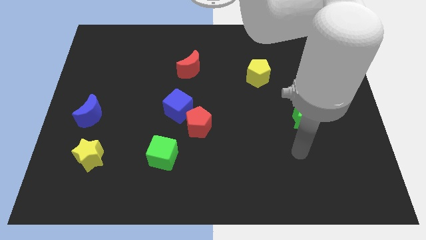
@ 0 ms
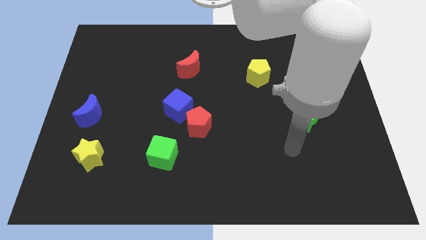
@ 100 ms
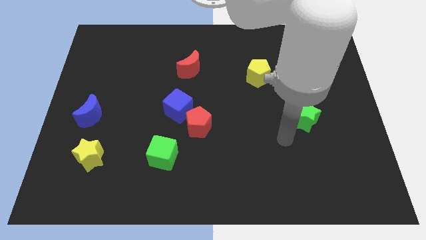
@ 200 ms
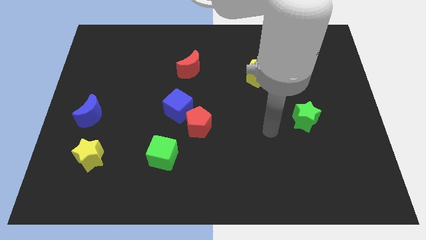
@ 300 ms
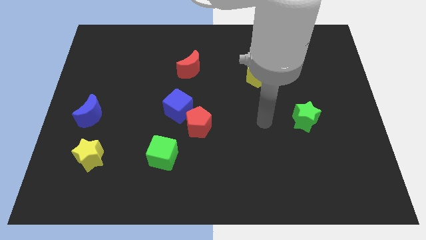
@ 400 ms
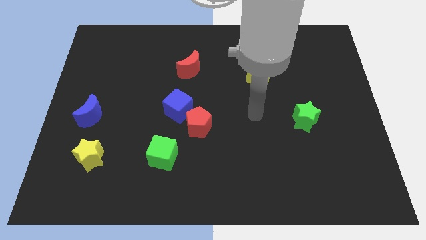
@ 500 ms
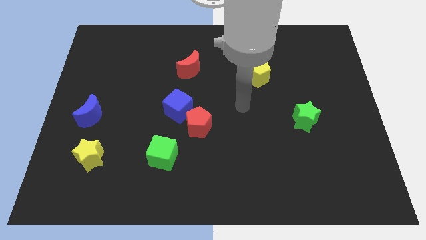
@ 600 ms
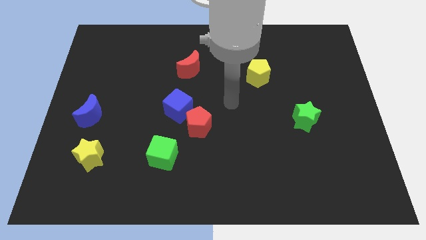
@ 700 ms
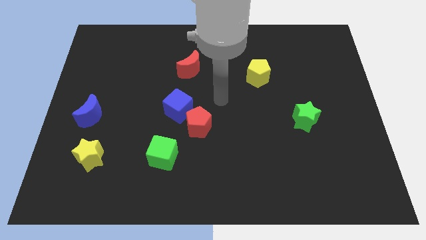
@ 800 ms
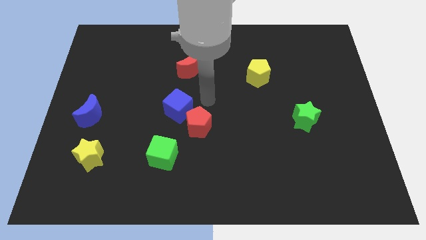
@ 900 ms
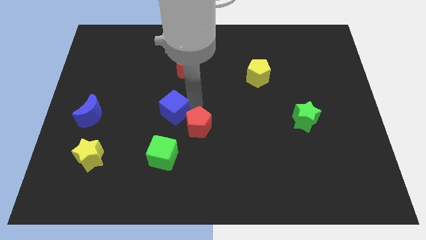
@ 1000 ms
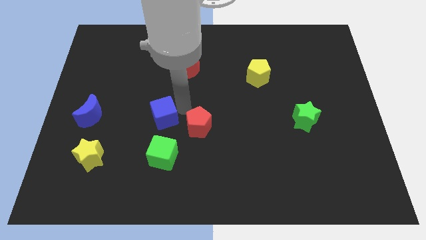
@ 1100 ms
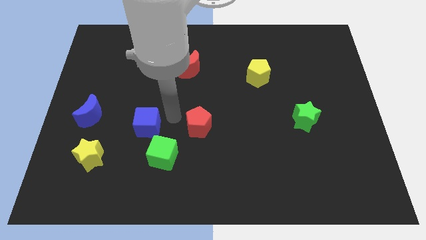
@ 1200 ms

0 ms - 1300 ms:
pull the red pentagon apart from the blue cube

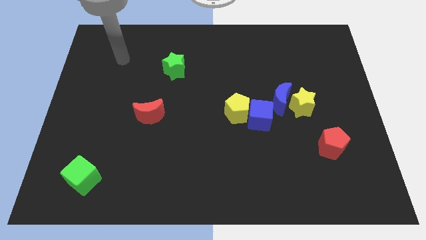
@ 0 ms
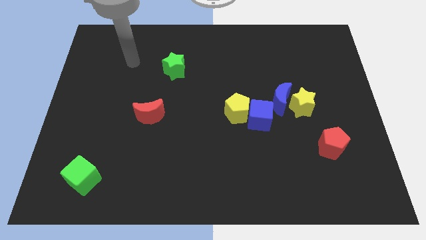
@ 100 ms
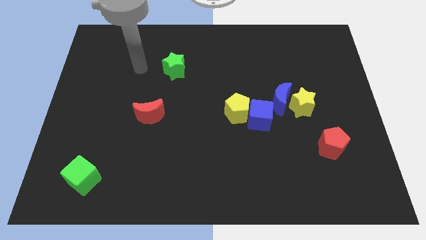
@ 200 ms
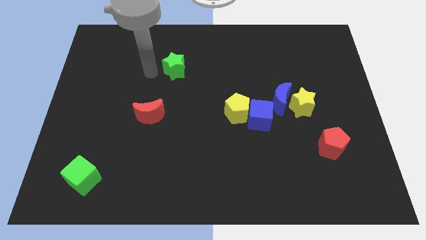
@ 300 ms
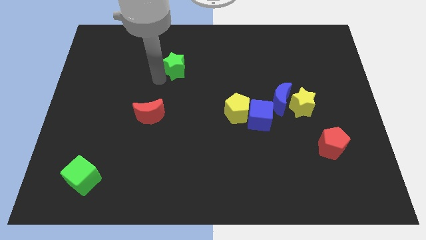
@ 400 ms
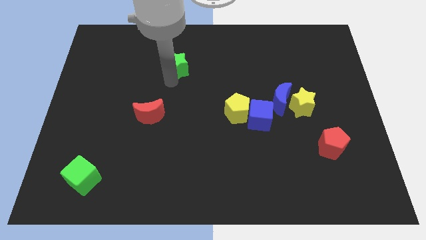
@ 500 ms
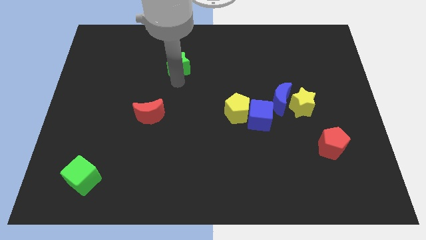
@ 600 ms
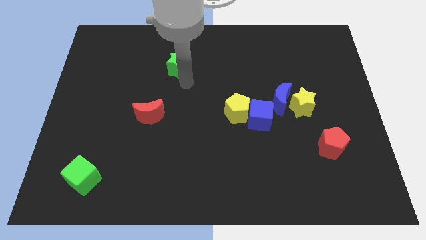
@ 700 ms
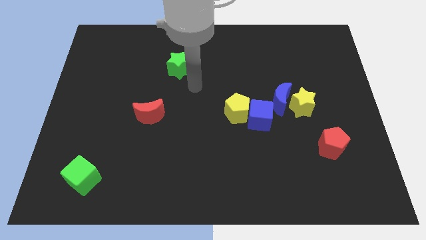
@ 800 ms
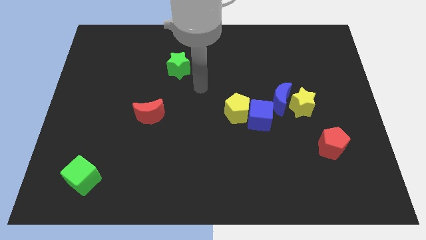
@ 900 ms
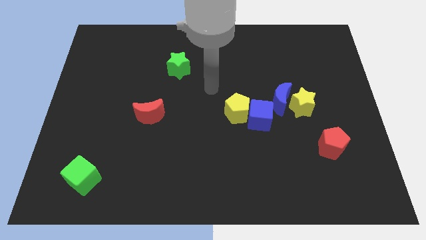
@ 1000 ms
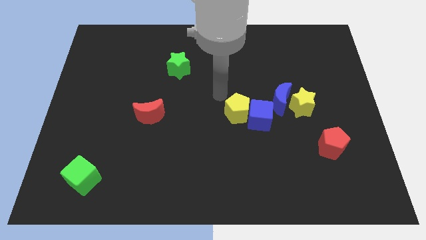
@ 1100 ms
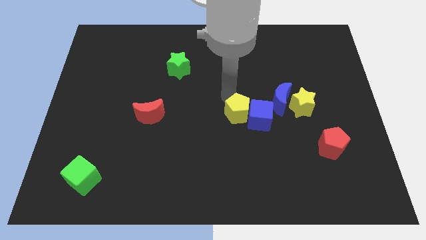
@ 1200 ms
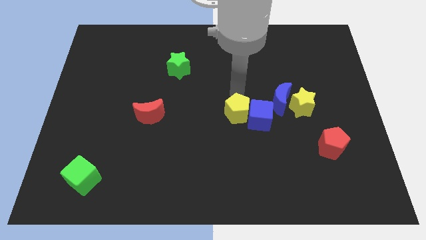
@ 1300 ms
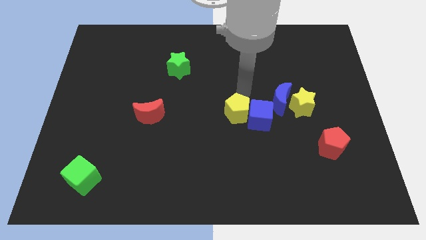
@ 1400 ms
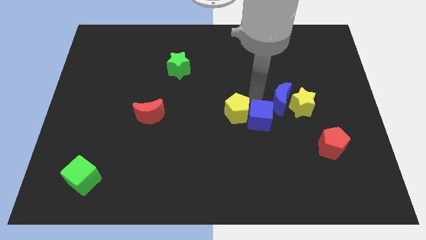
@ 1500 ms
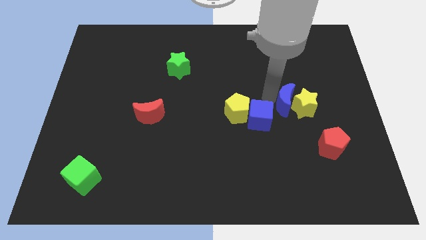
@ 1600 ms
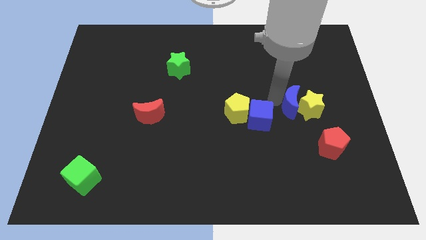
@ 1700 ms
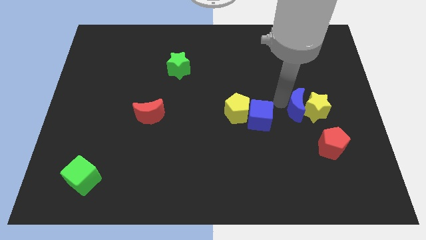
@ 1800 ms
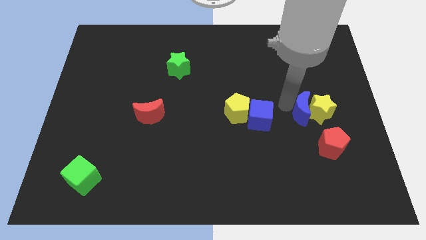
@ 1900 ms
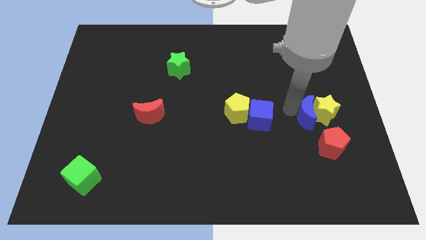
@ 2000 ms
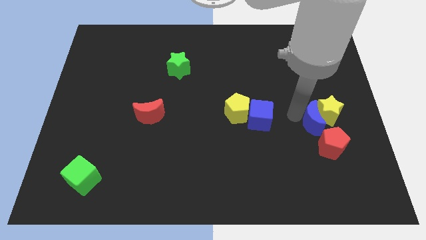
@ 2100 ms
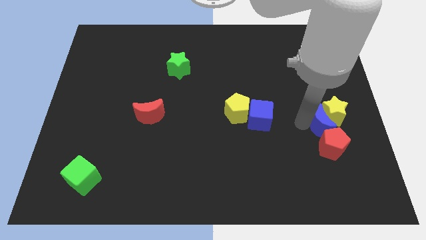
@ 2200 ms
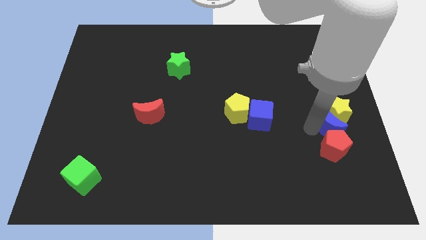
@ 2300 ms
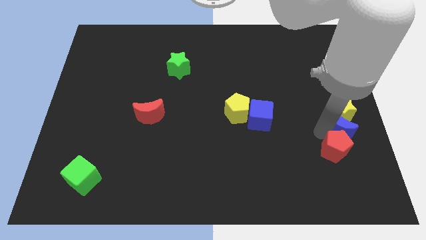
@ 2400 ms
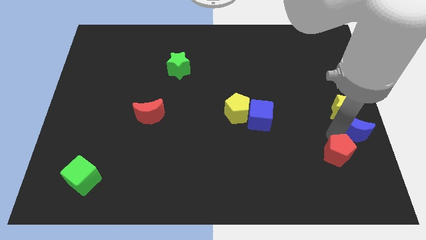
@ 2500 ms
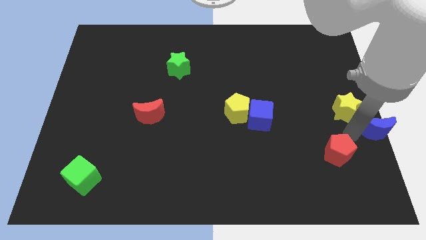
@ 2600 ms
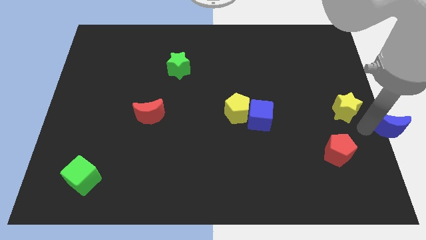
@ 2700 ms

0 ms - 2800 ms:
pull the yellow star apart from the blue moon

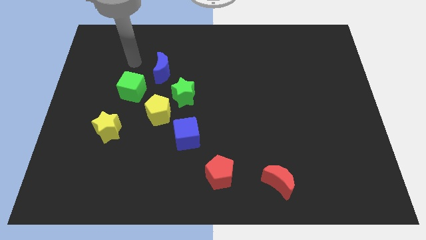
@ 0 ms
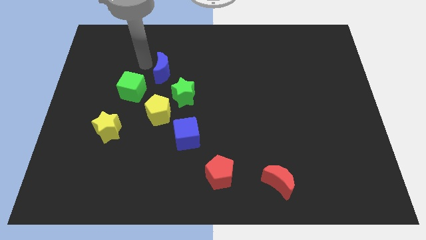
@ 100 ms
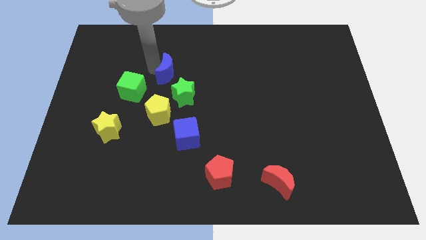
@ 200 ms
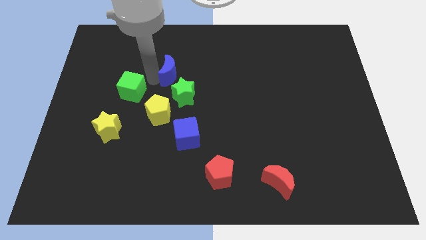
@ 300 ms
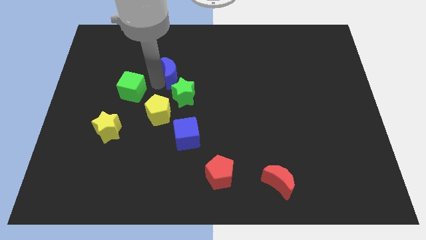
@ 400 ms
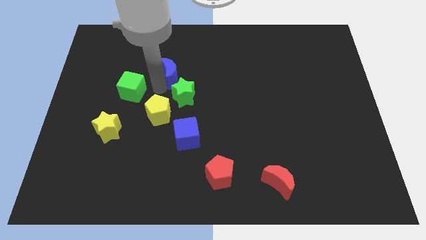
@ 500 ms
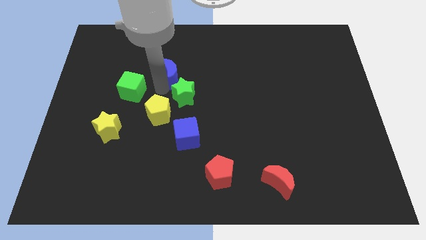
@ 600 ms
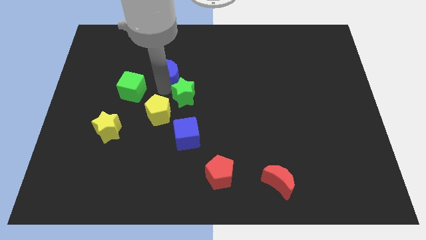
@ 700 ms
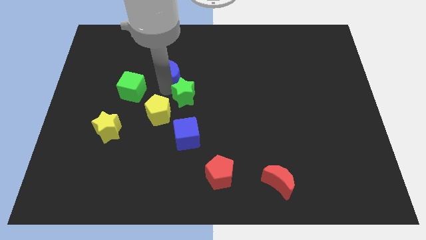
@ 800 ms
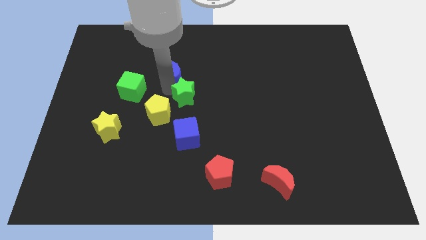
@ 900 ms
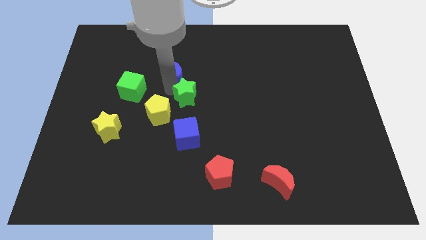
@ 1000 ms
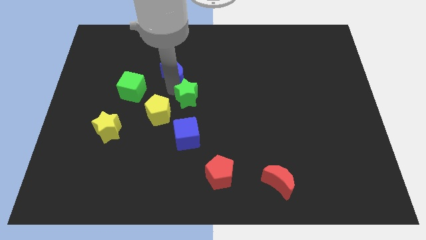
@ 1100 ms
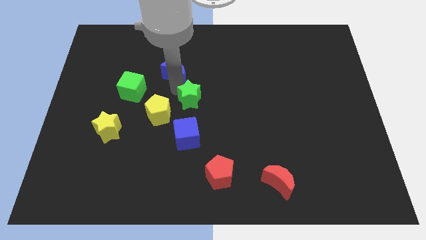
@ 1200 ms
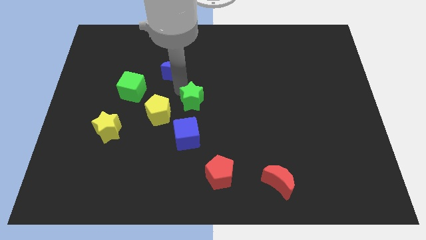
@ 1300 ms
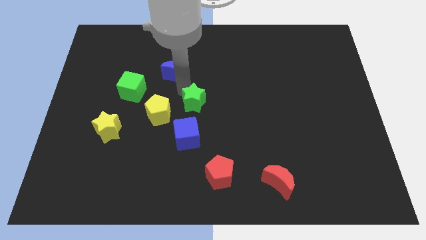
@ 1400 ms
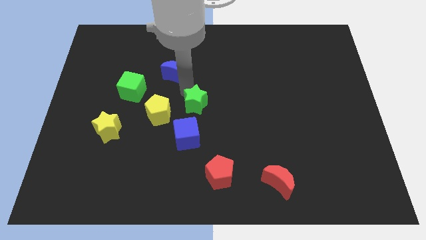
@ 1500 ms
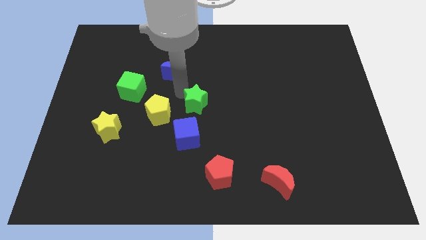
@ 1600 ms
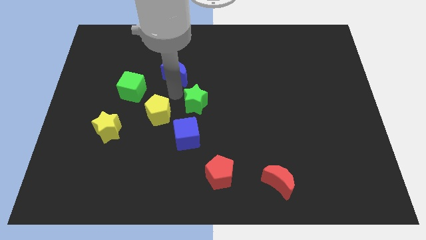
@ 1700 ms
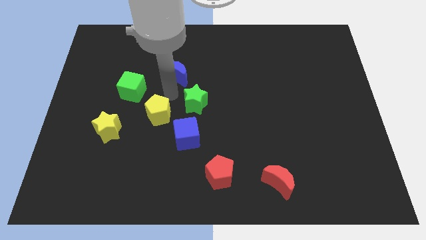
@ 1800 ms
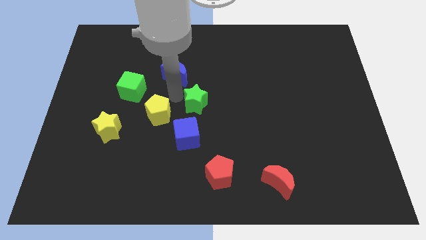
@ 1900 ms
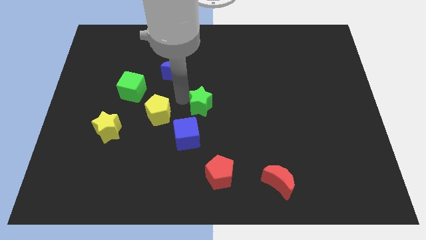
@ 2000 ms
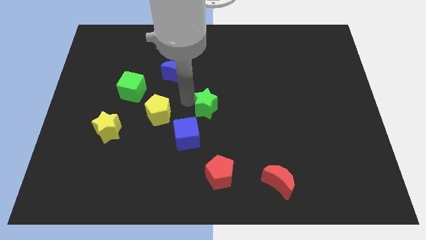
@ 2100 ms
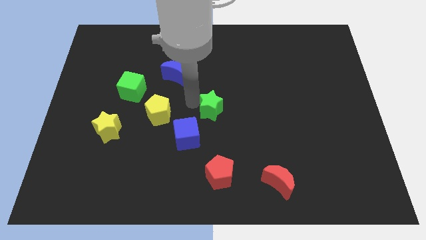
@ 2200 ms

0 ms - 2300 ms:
pull the green star apart from the yellow pentagon and blue moon

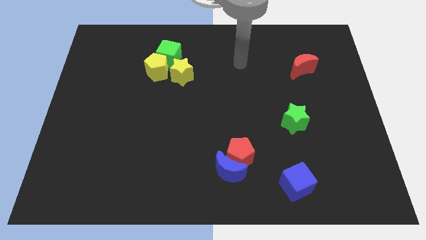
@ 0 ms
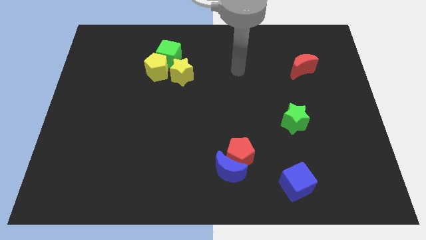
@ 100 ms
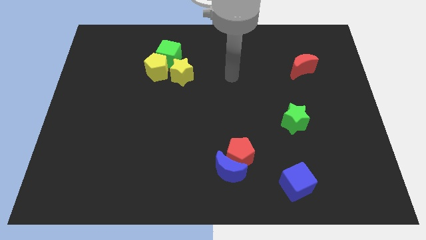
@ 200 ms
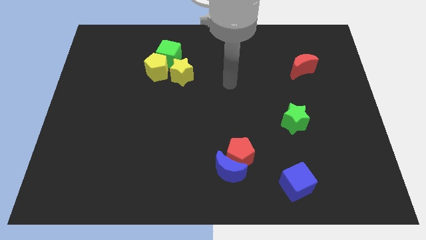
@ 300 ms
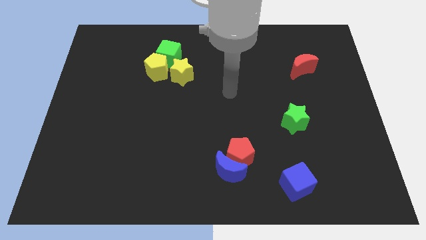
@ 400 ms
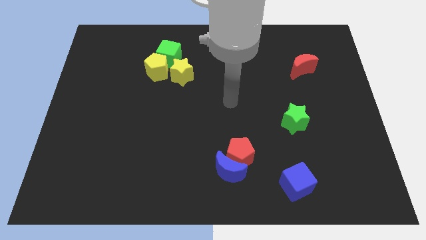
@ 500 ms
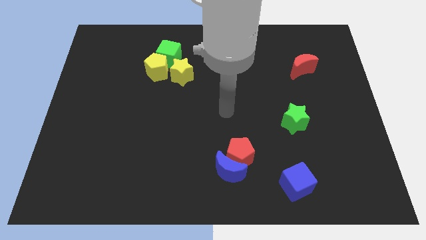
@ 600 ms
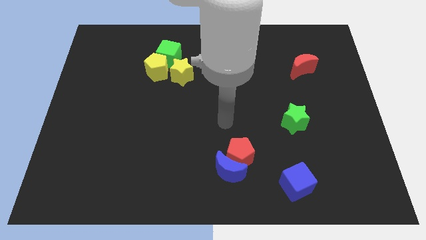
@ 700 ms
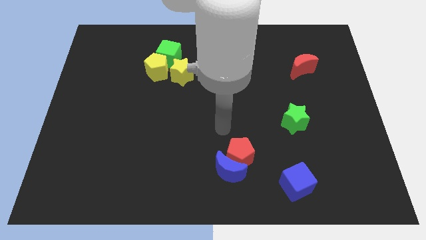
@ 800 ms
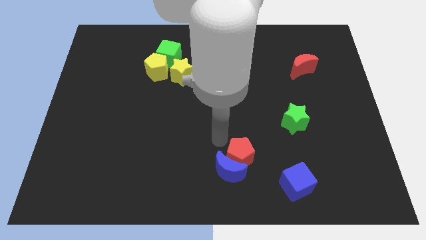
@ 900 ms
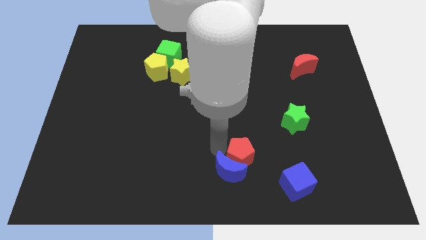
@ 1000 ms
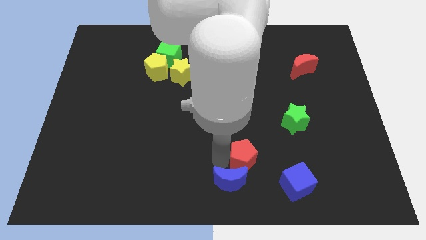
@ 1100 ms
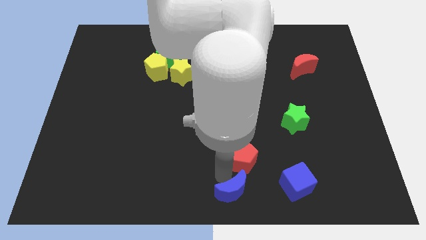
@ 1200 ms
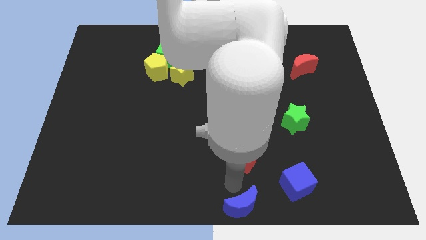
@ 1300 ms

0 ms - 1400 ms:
move the red pentagon away from the blue moon

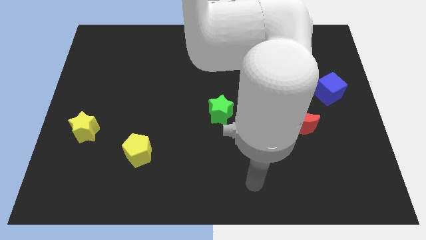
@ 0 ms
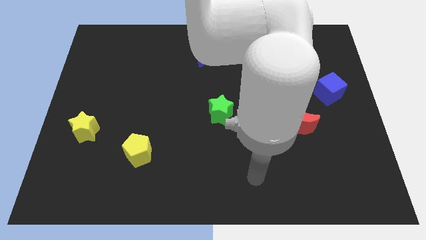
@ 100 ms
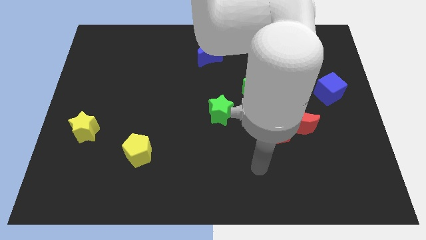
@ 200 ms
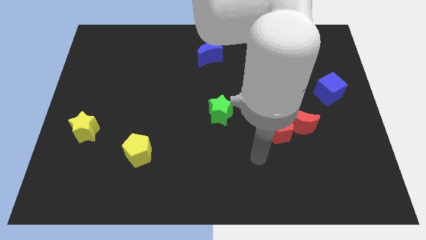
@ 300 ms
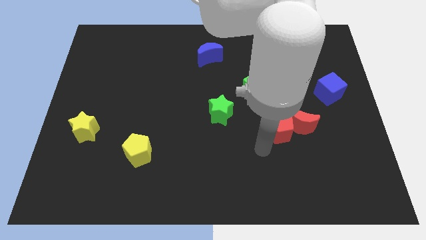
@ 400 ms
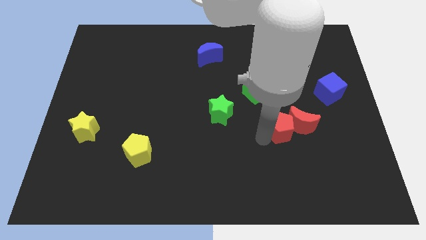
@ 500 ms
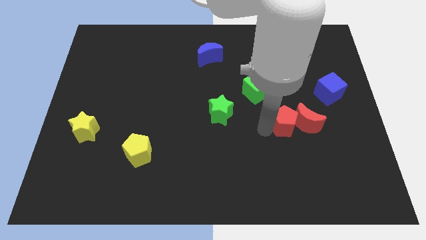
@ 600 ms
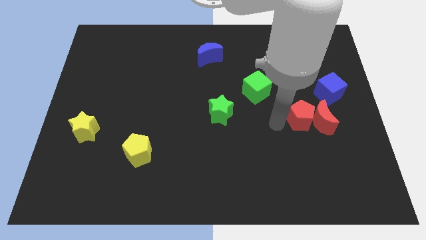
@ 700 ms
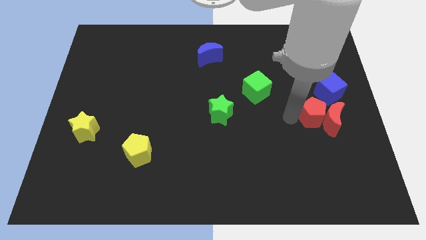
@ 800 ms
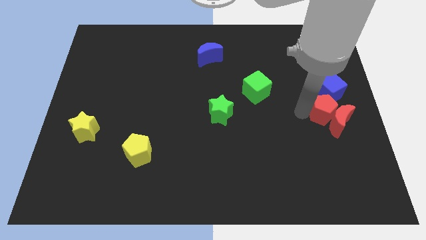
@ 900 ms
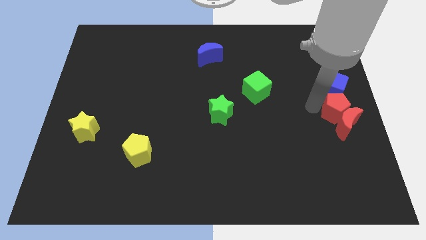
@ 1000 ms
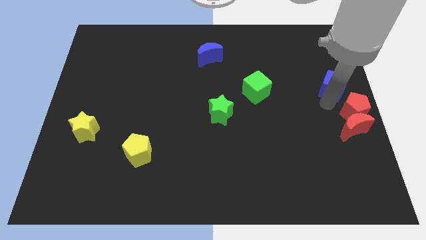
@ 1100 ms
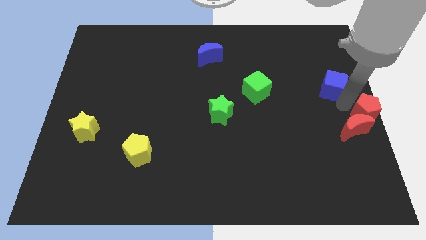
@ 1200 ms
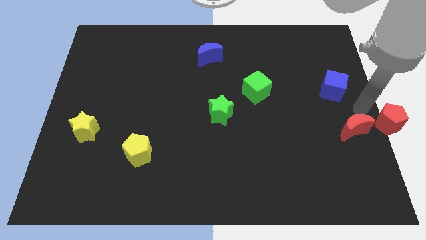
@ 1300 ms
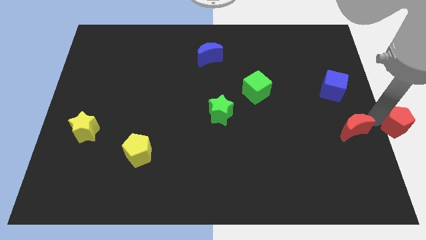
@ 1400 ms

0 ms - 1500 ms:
move the red moon away from the red pentagon
